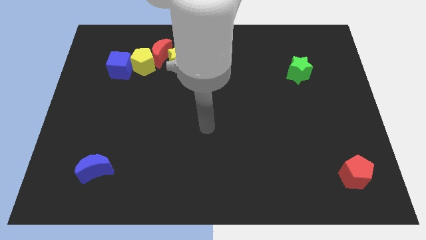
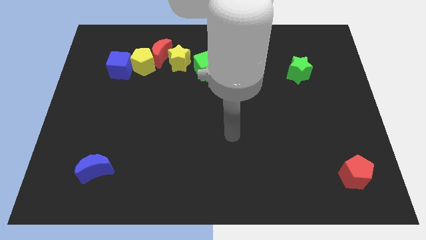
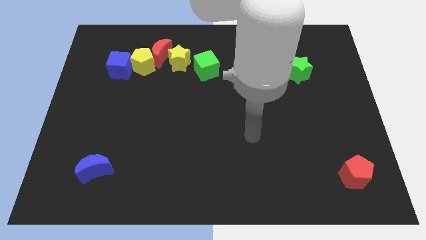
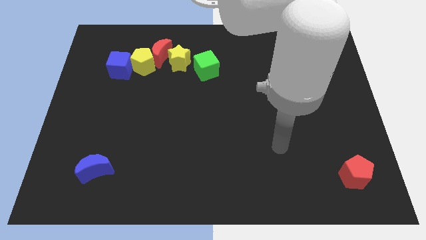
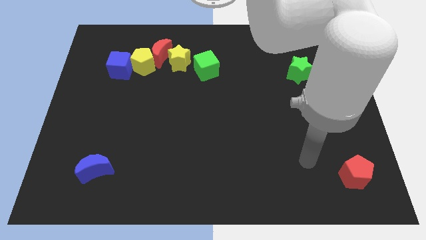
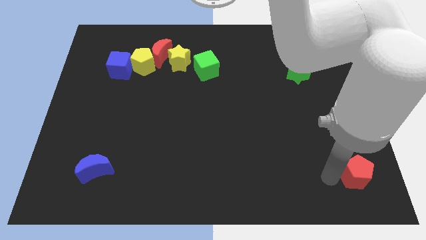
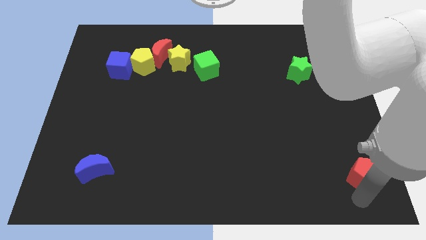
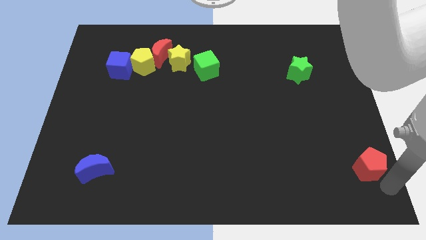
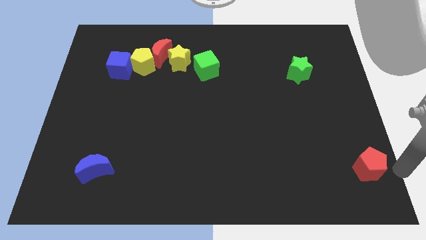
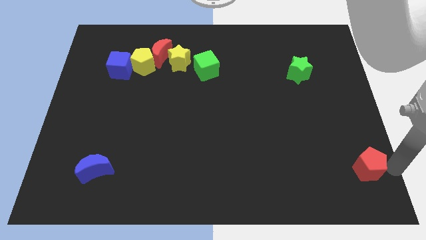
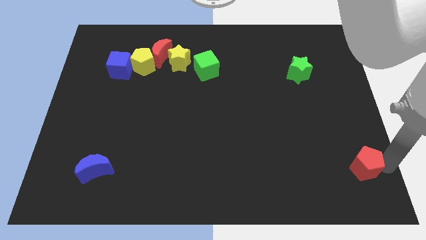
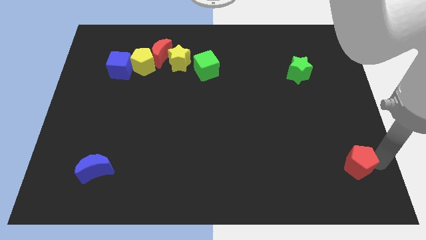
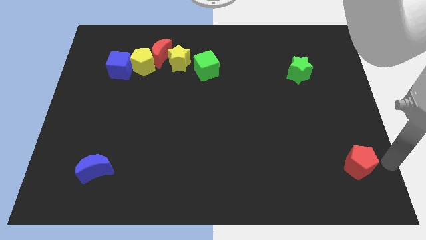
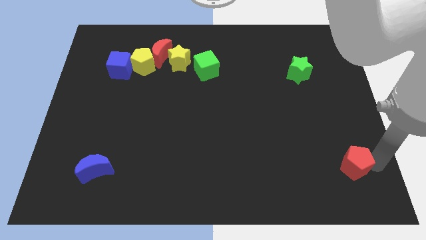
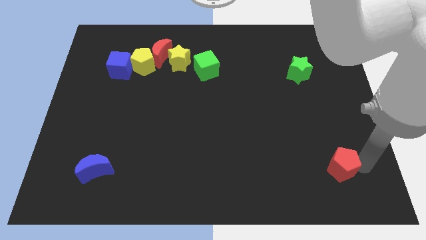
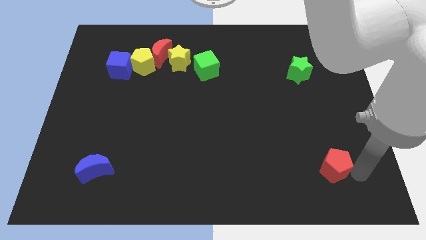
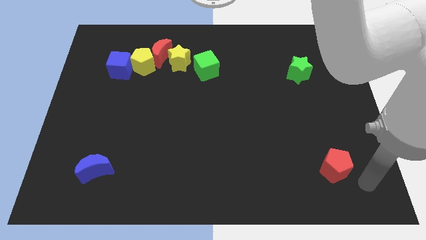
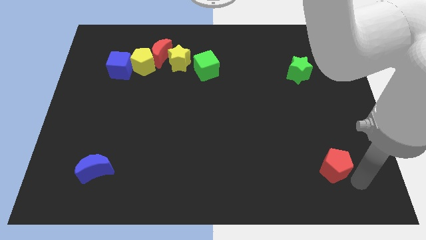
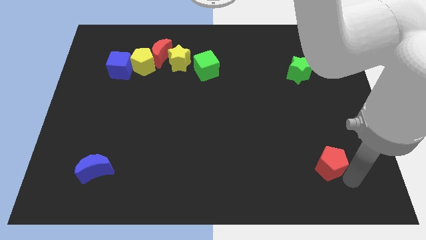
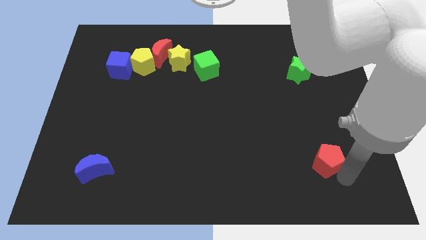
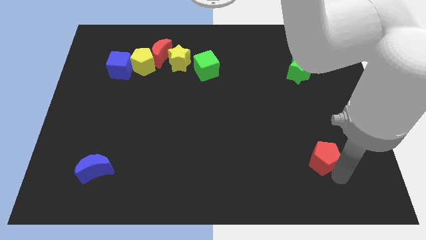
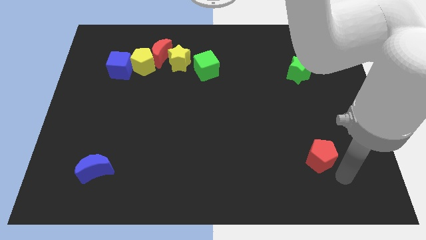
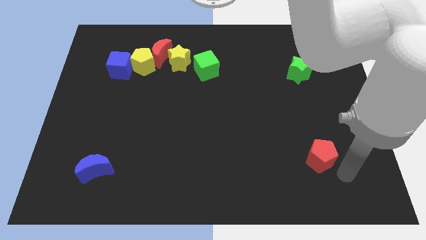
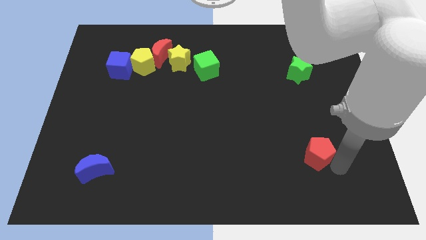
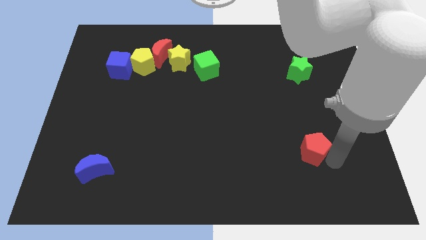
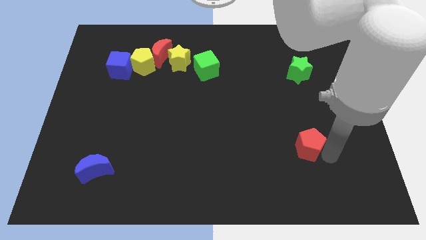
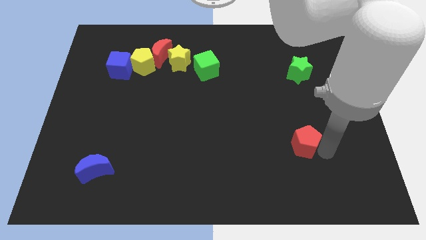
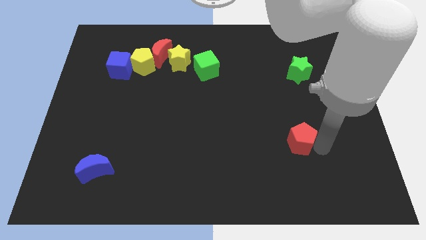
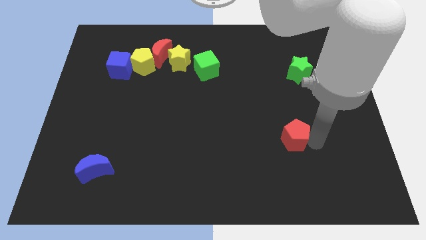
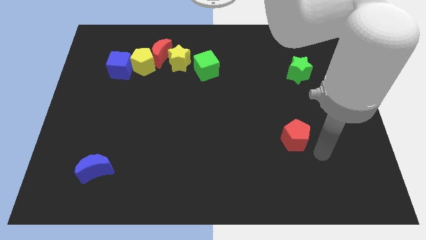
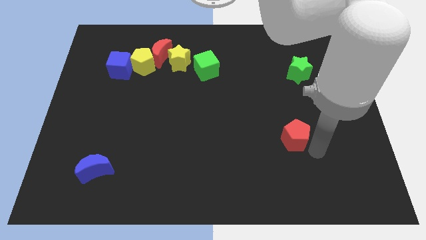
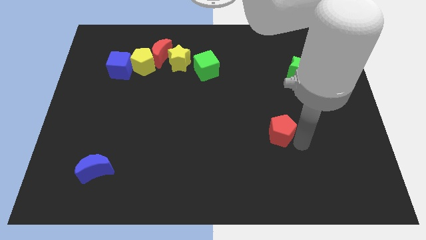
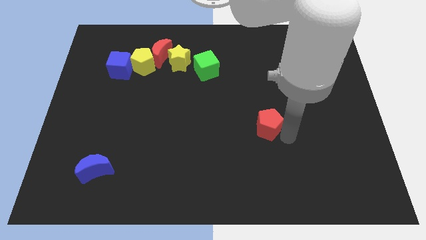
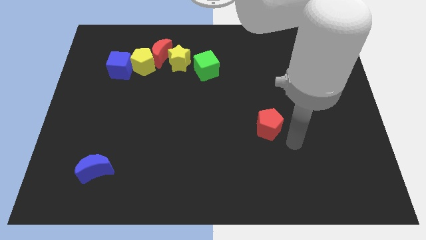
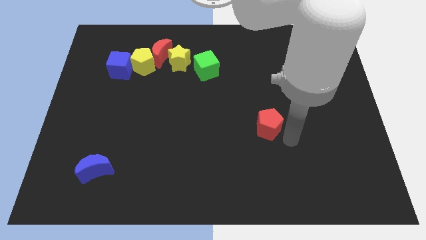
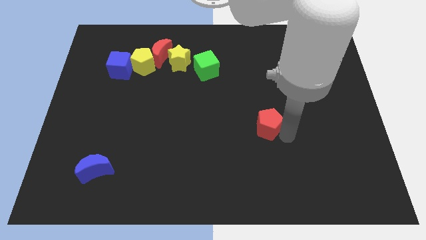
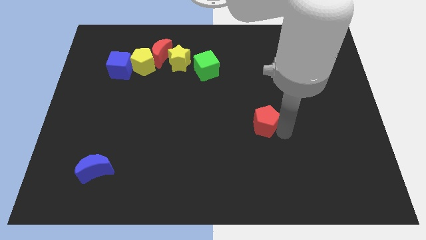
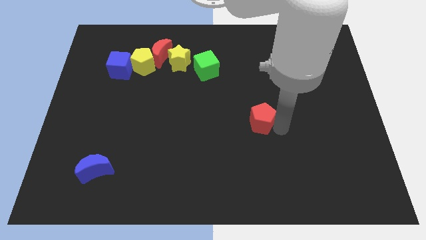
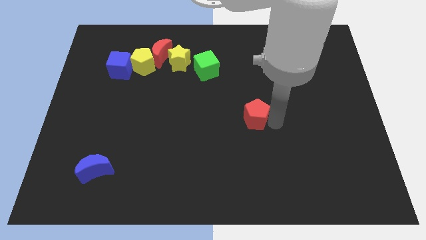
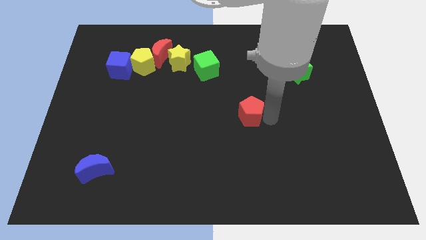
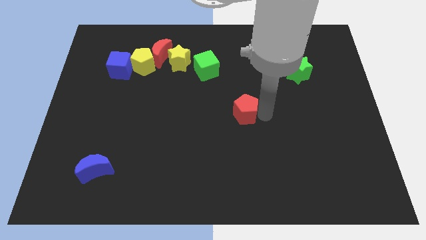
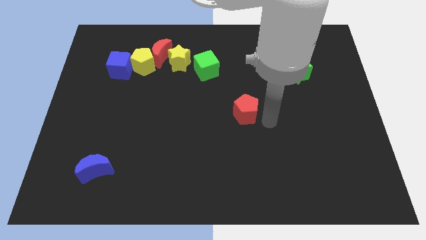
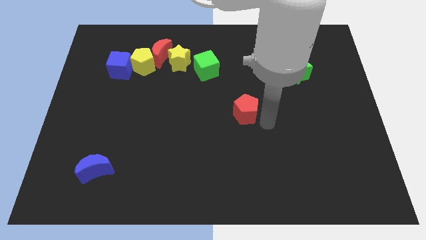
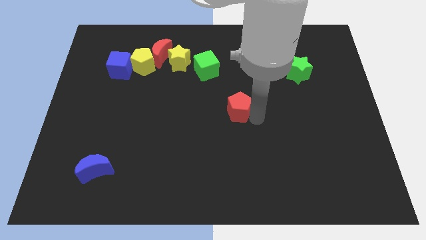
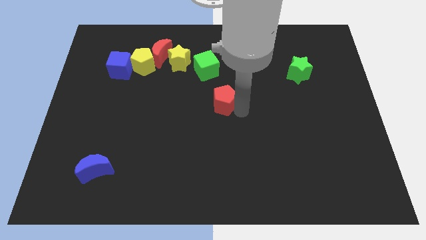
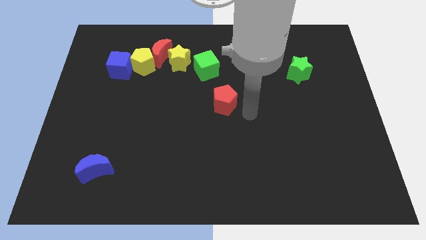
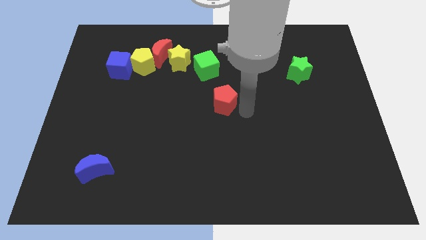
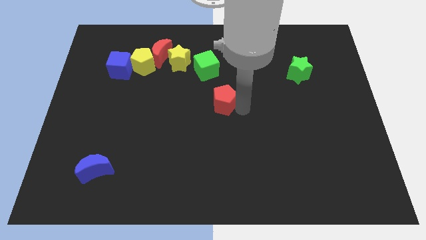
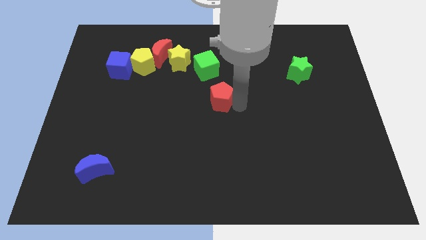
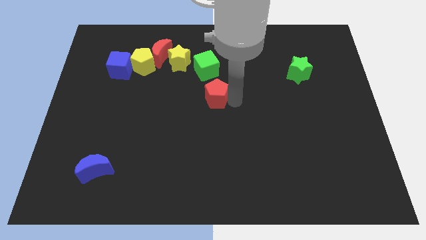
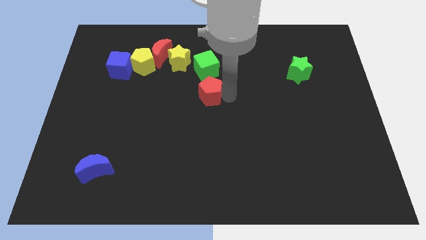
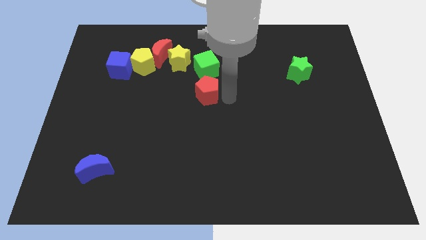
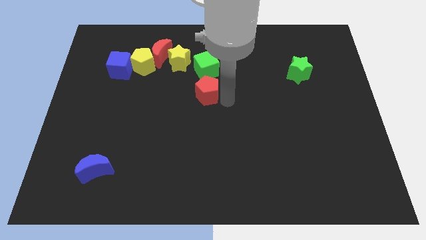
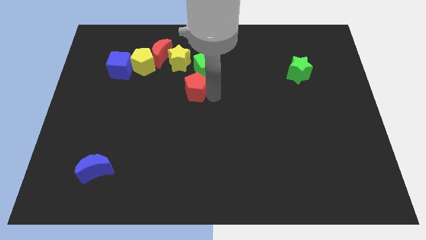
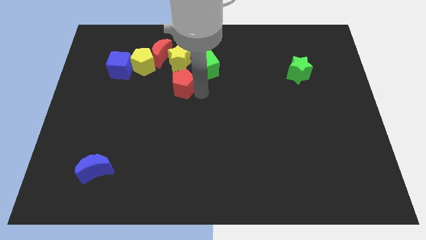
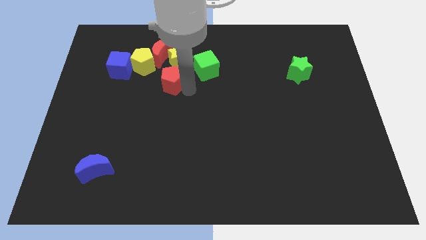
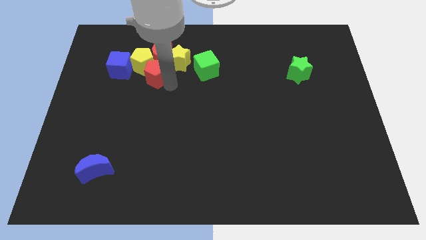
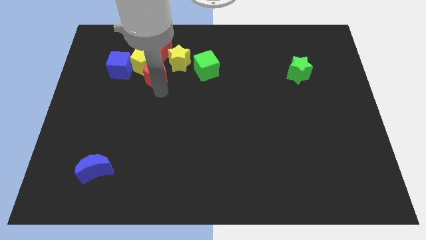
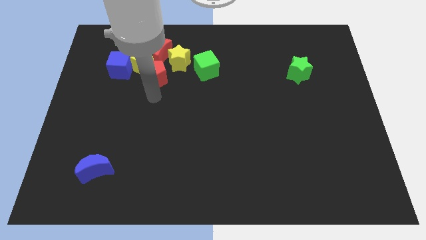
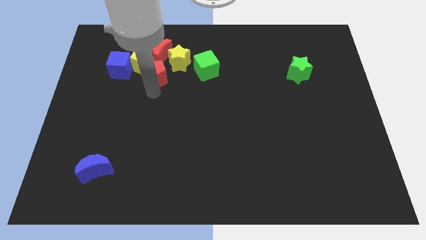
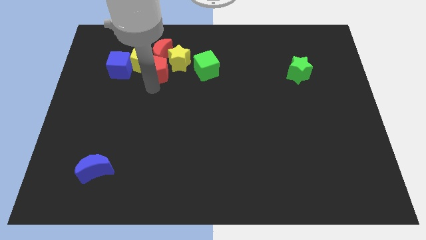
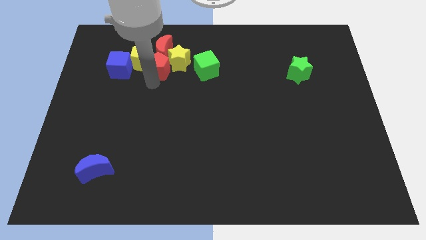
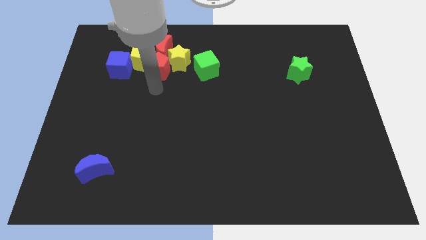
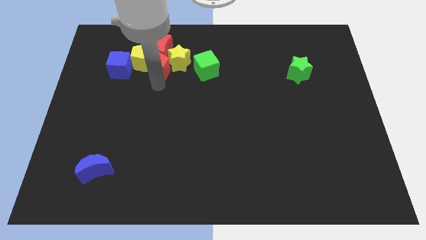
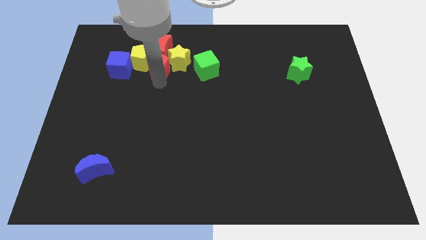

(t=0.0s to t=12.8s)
push the red pentagon close to the red moon

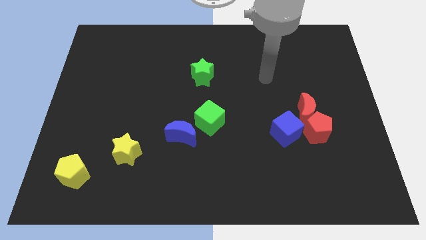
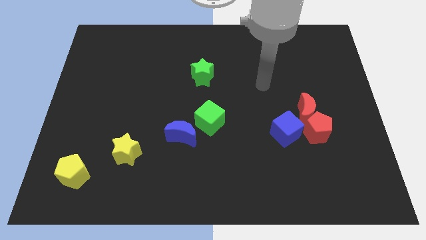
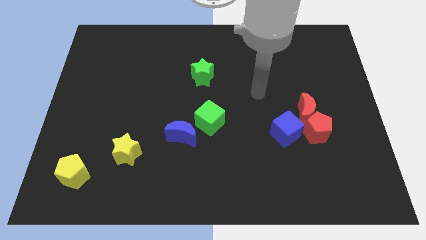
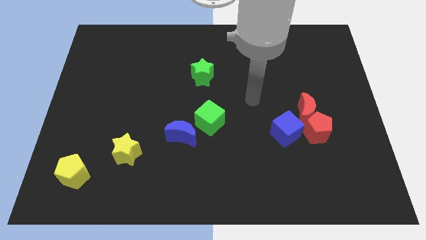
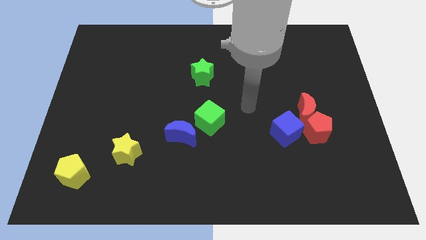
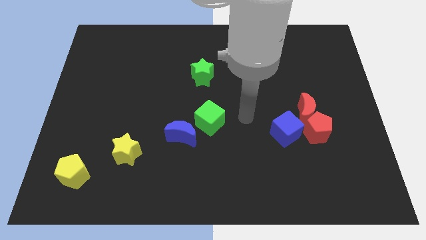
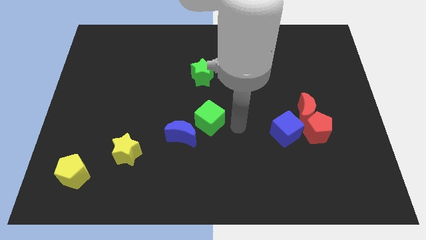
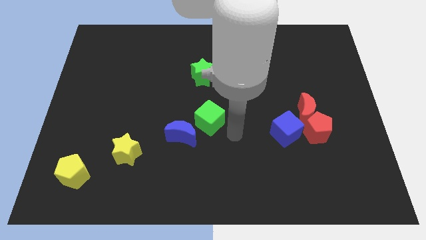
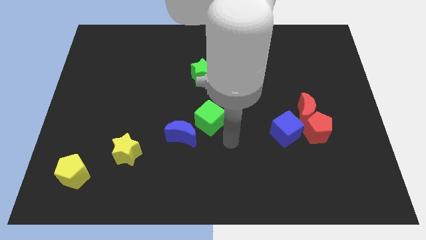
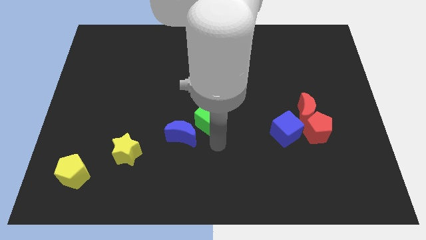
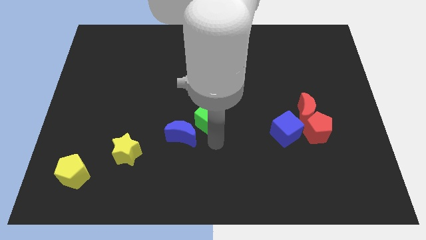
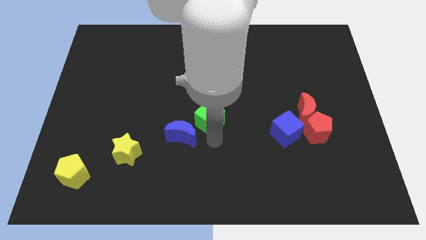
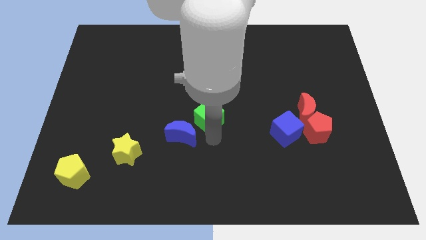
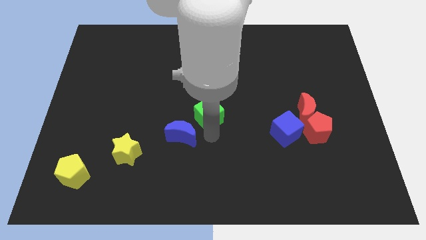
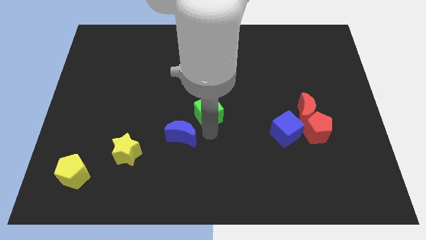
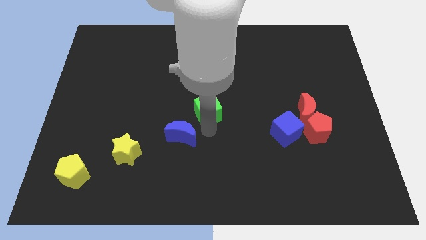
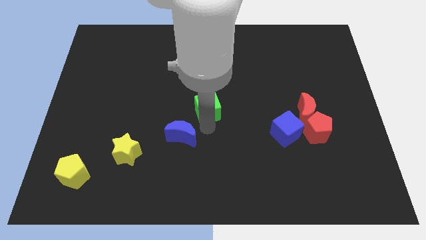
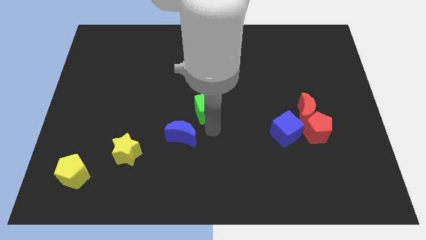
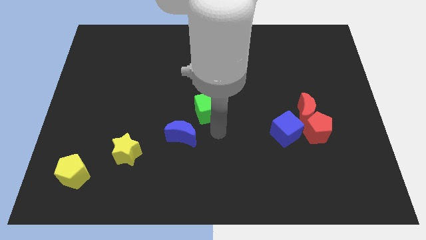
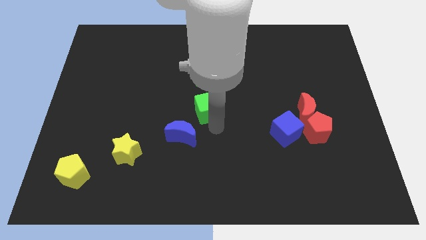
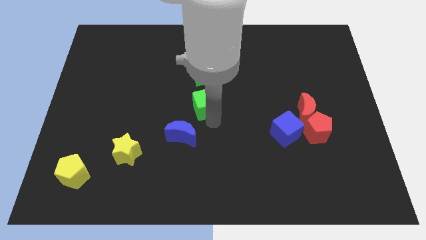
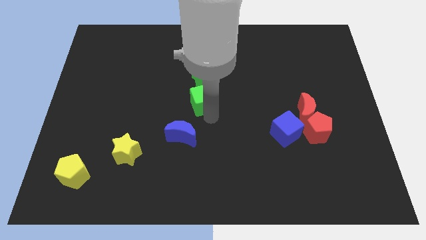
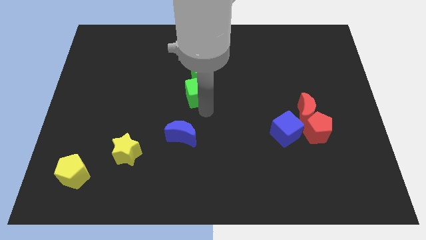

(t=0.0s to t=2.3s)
put the green cube next to the green star
